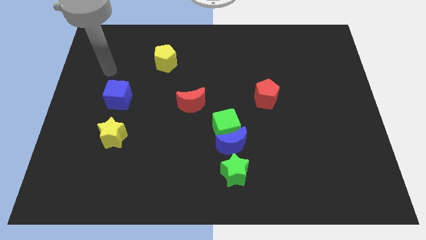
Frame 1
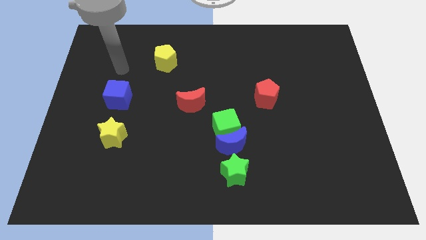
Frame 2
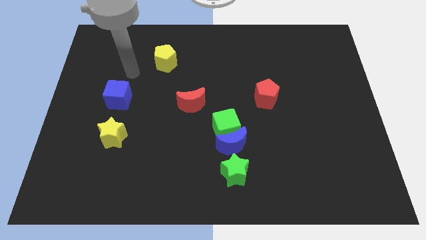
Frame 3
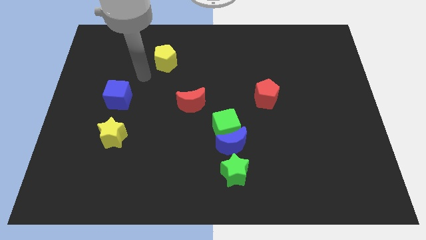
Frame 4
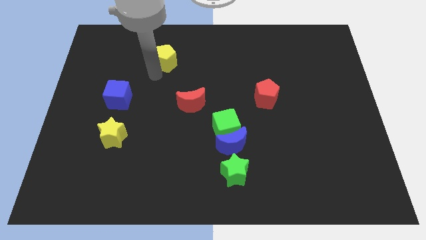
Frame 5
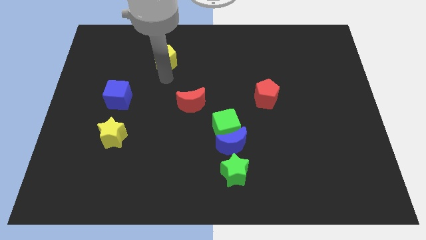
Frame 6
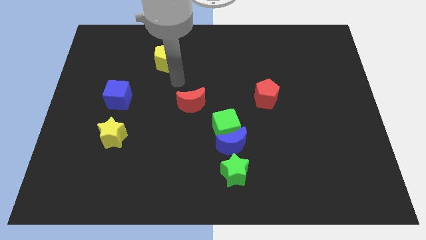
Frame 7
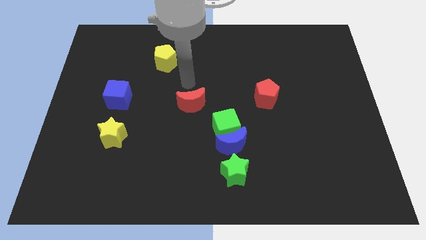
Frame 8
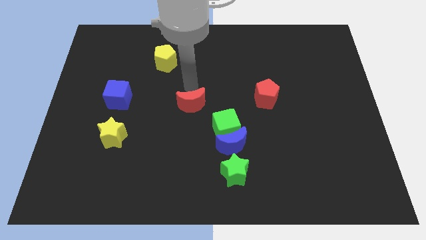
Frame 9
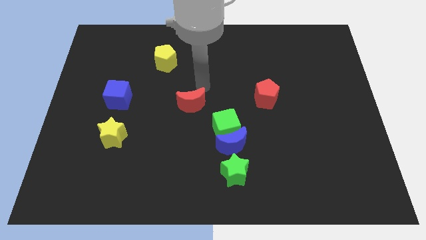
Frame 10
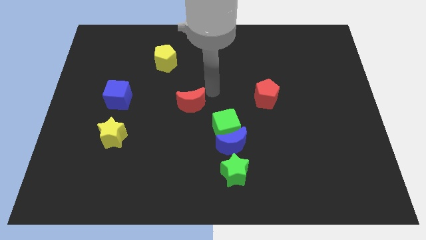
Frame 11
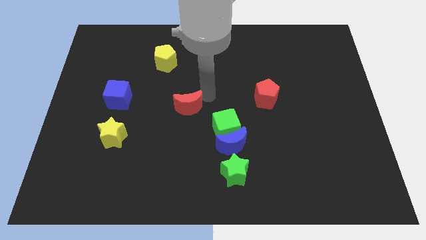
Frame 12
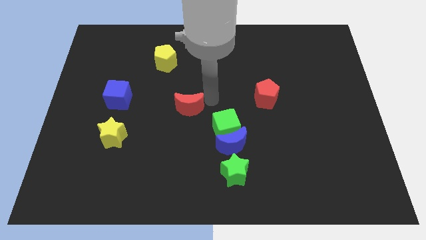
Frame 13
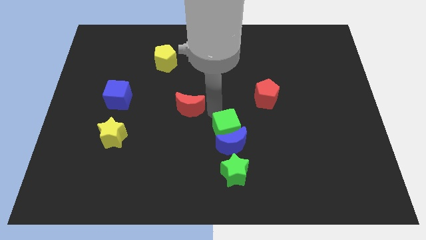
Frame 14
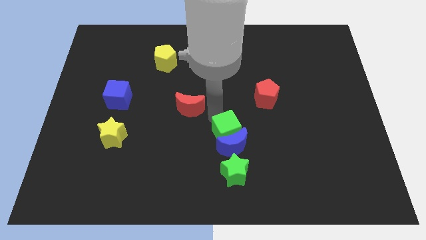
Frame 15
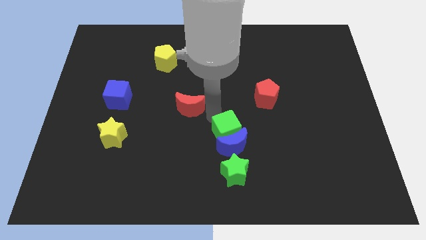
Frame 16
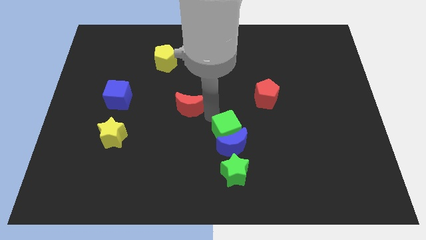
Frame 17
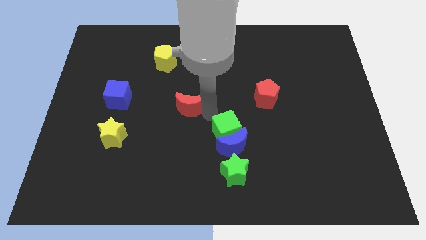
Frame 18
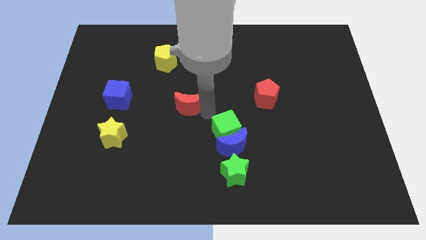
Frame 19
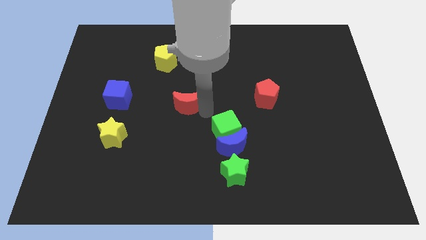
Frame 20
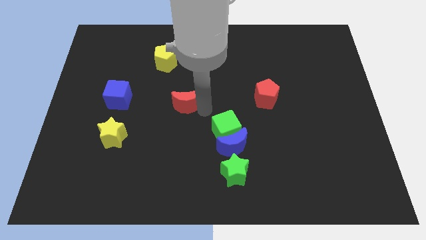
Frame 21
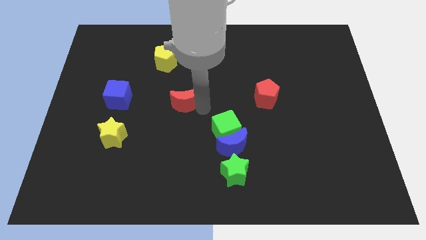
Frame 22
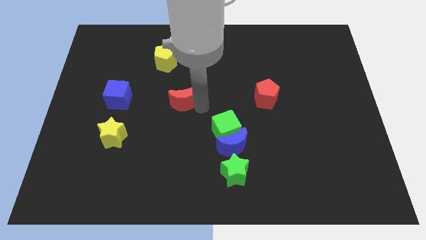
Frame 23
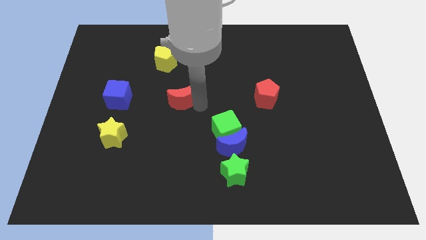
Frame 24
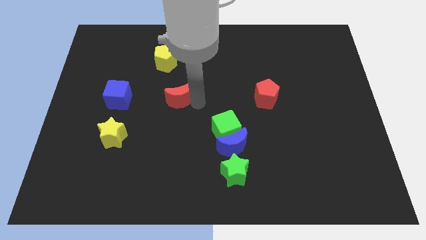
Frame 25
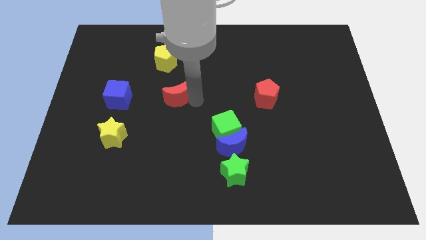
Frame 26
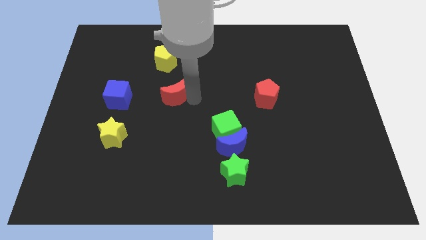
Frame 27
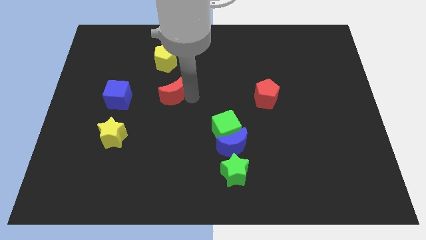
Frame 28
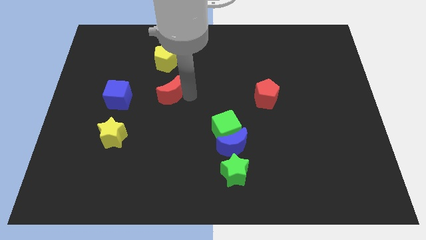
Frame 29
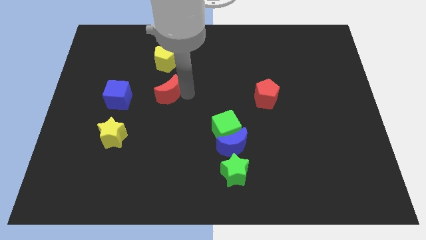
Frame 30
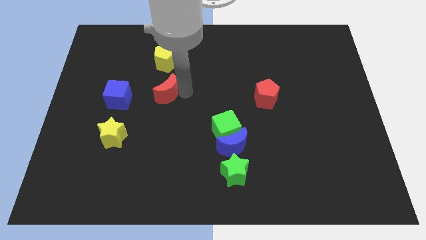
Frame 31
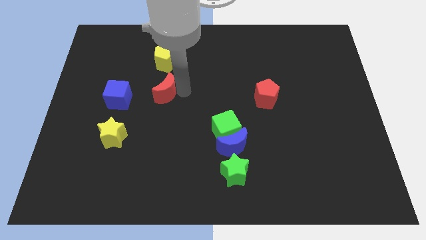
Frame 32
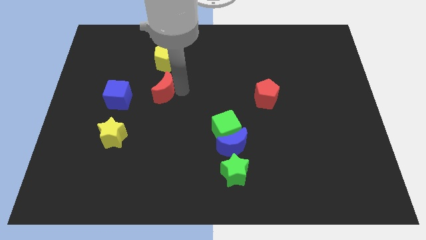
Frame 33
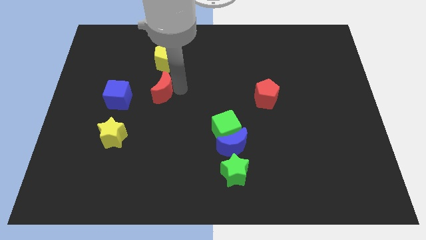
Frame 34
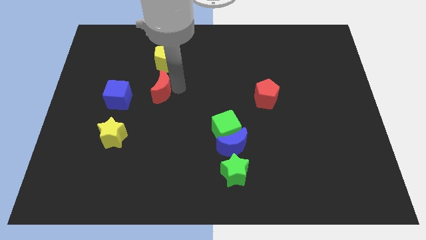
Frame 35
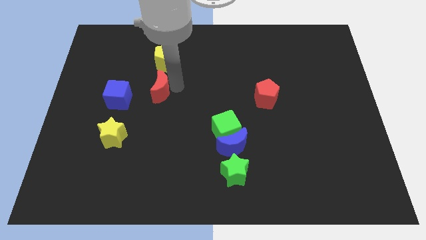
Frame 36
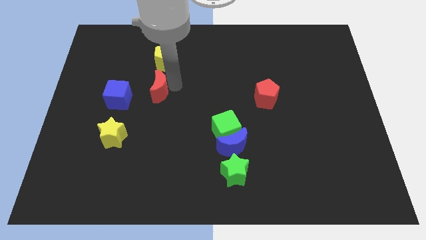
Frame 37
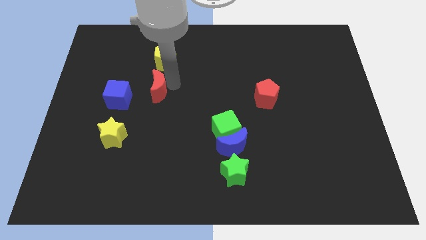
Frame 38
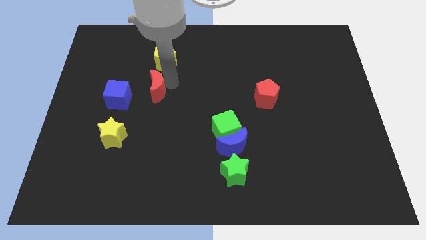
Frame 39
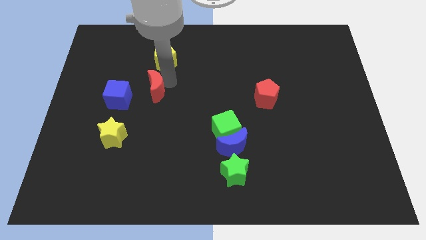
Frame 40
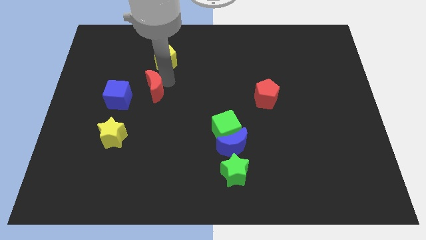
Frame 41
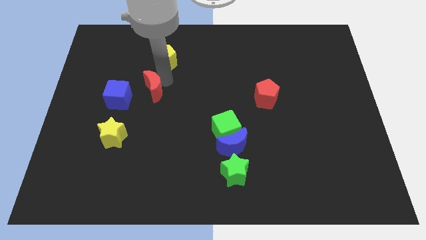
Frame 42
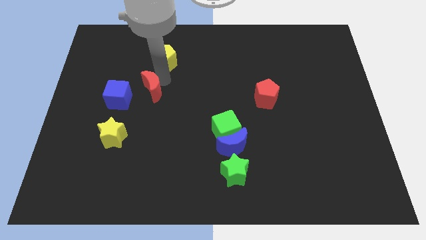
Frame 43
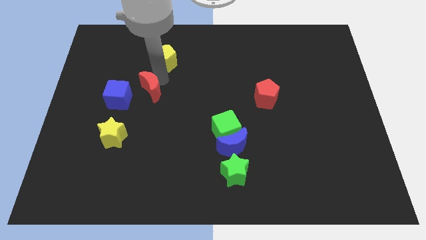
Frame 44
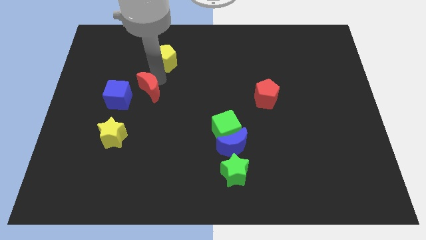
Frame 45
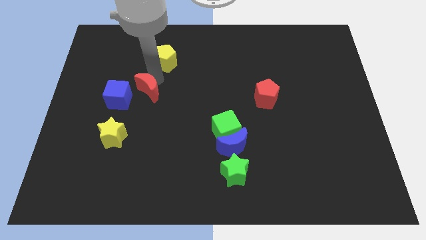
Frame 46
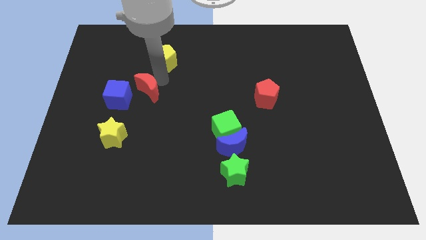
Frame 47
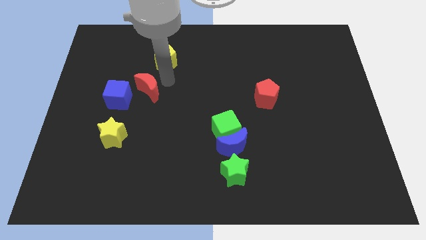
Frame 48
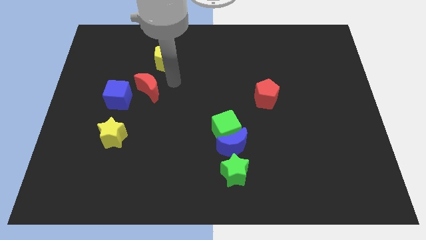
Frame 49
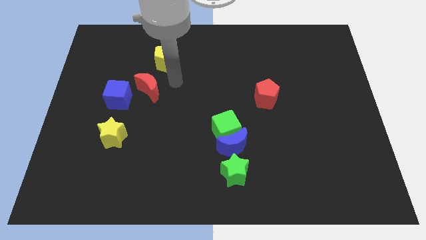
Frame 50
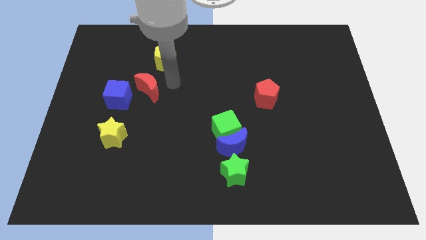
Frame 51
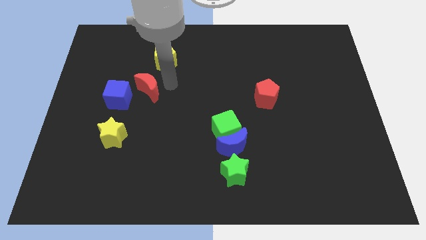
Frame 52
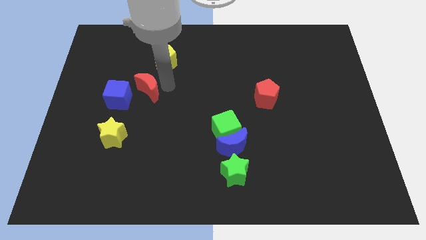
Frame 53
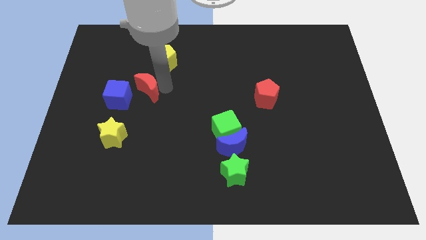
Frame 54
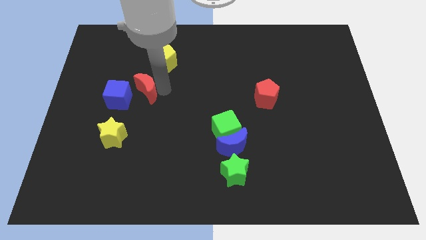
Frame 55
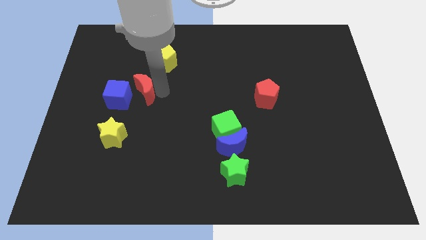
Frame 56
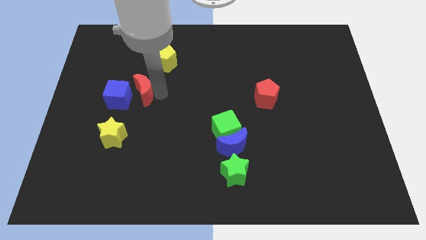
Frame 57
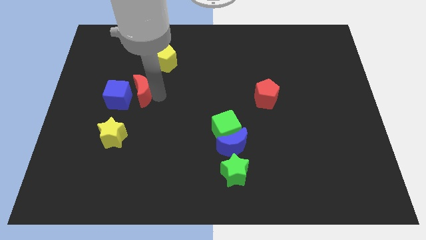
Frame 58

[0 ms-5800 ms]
move the red moon to the blue cube

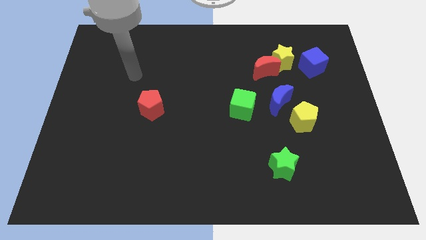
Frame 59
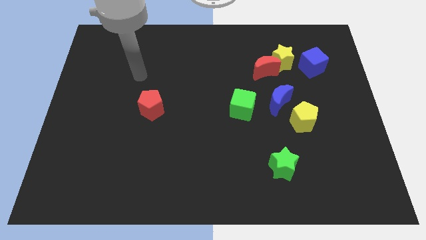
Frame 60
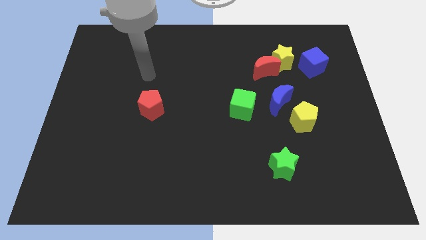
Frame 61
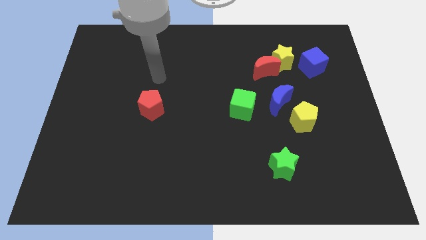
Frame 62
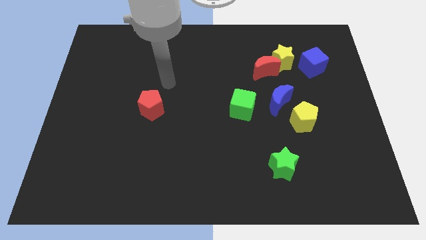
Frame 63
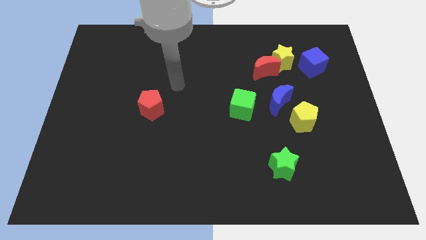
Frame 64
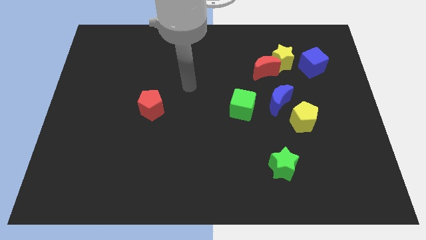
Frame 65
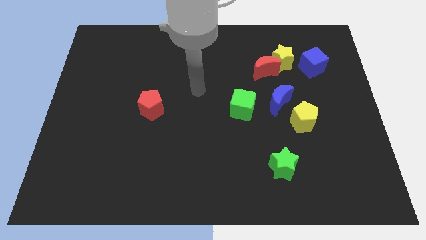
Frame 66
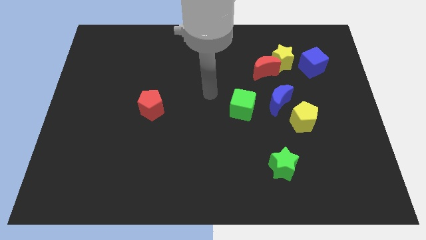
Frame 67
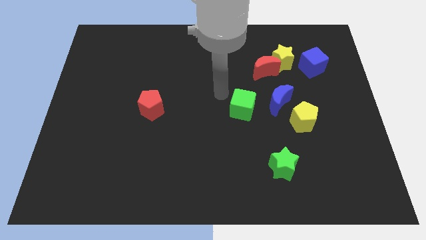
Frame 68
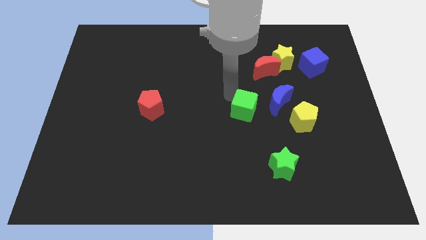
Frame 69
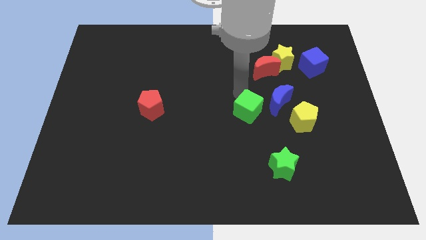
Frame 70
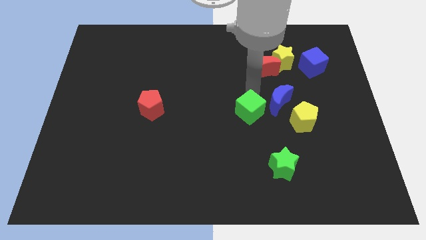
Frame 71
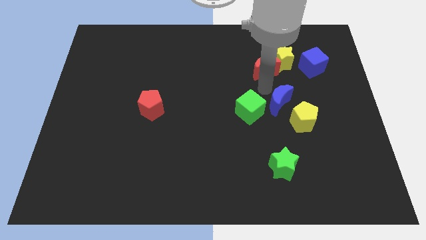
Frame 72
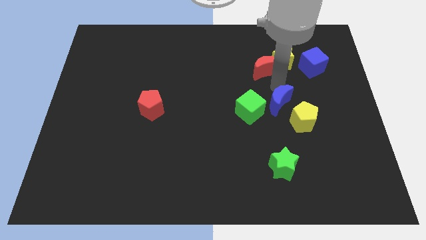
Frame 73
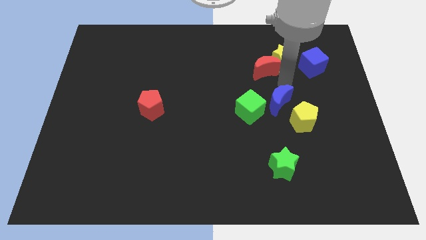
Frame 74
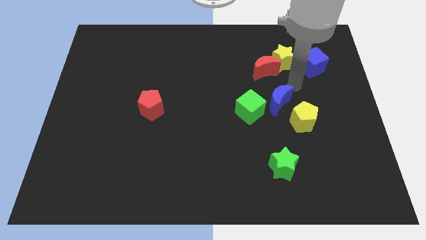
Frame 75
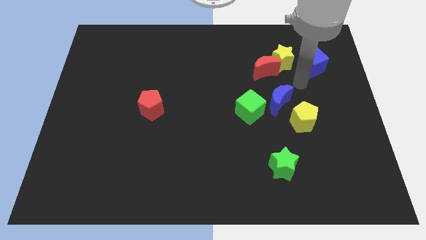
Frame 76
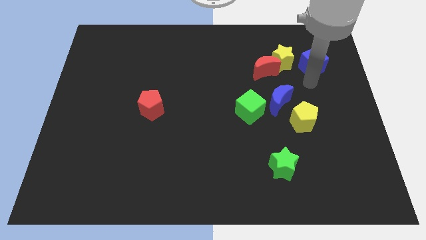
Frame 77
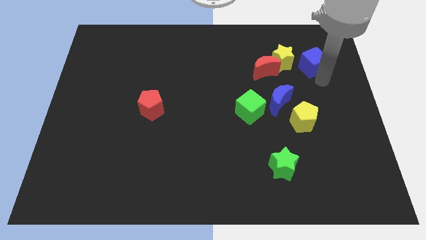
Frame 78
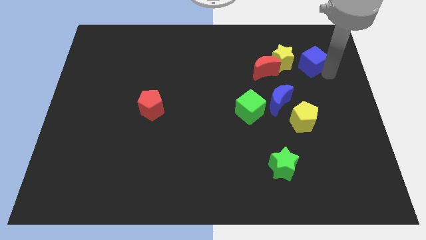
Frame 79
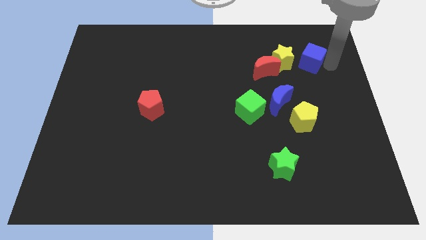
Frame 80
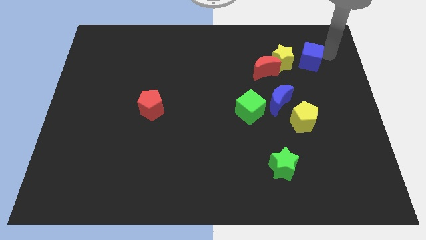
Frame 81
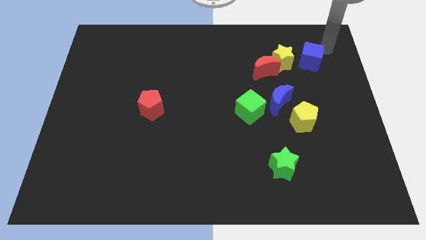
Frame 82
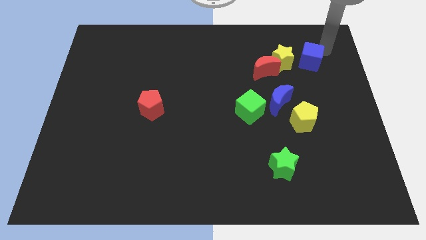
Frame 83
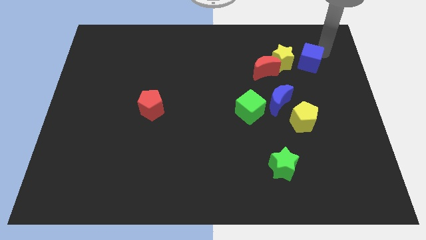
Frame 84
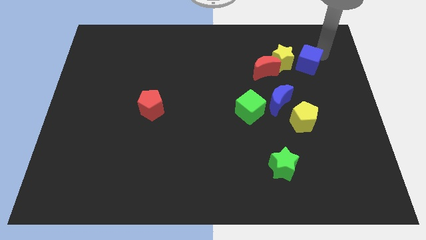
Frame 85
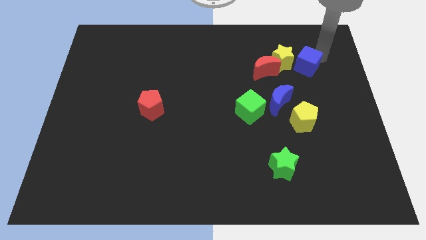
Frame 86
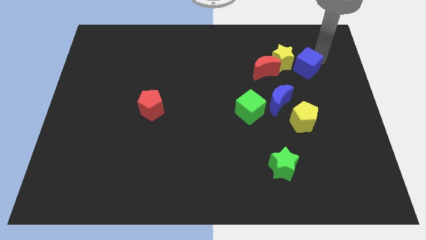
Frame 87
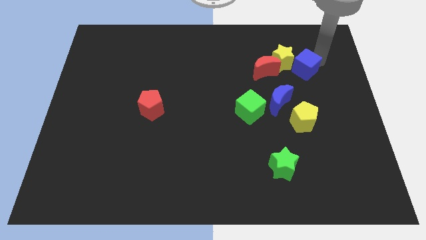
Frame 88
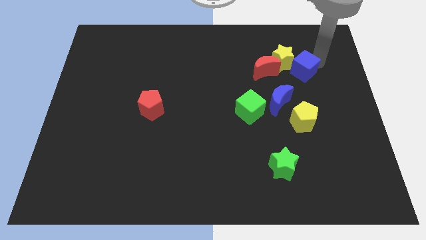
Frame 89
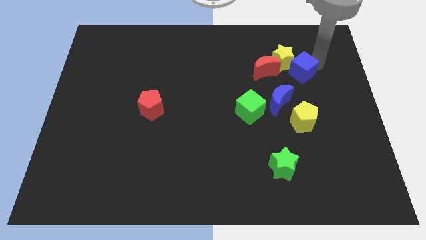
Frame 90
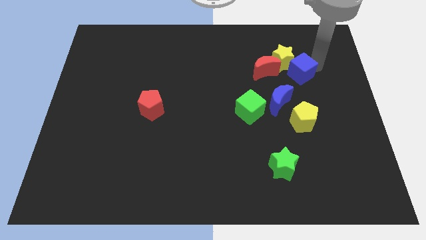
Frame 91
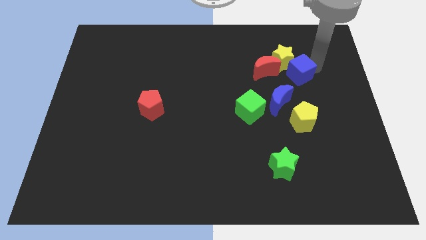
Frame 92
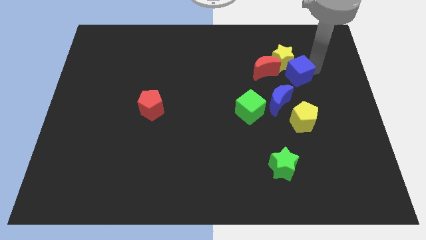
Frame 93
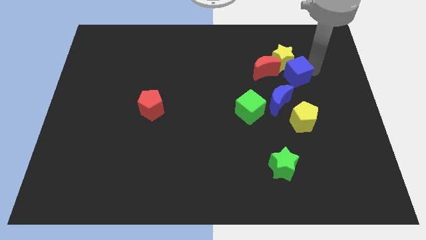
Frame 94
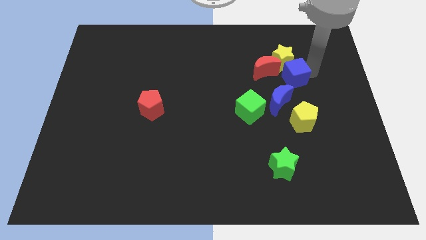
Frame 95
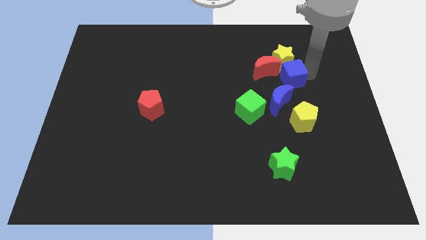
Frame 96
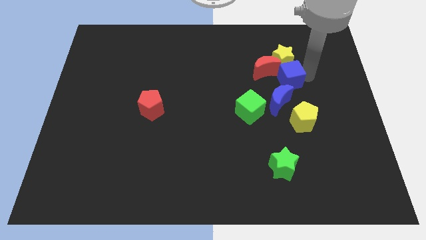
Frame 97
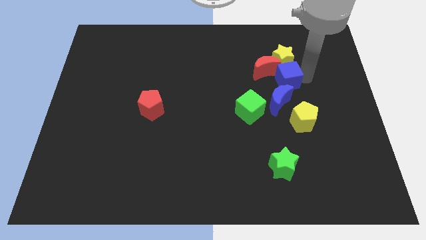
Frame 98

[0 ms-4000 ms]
slide the blue cube towards the red moon
